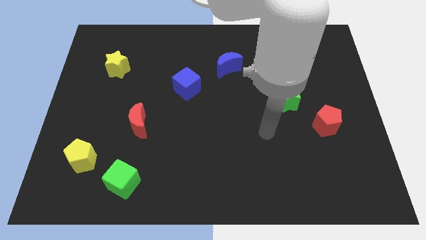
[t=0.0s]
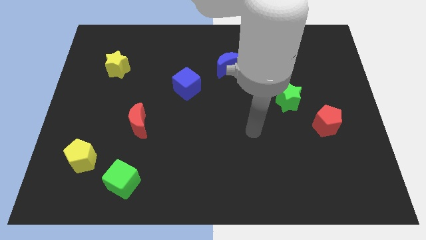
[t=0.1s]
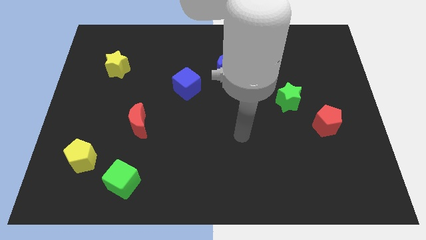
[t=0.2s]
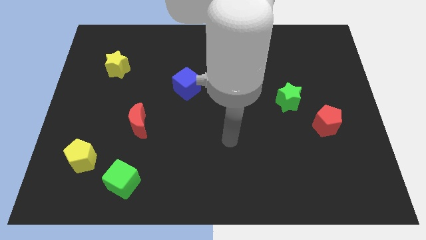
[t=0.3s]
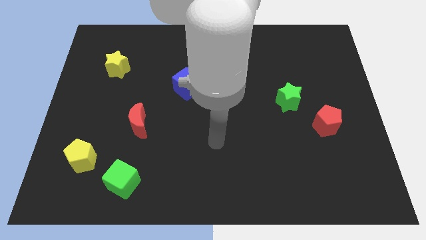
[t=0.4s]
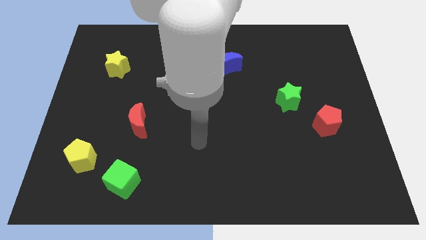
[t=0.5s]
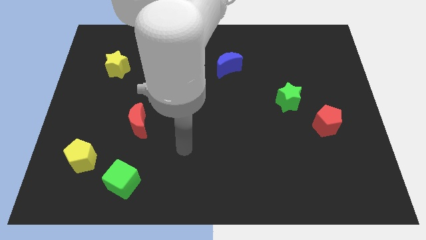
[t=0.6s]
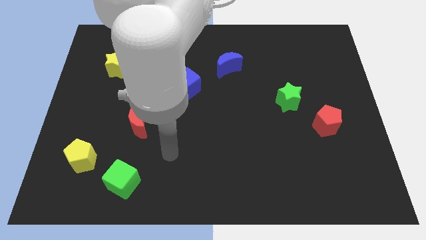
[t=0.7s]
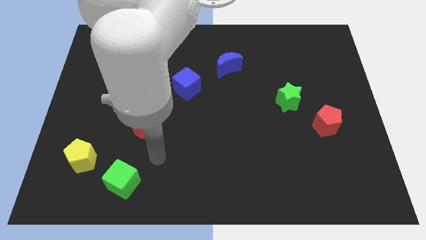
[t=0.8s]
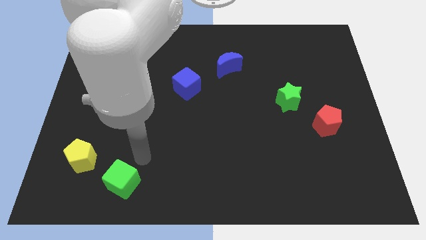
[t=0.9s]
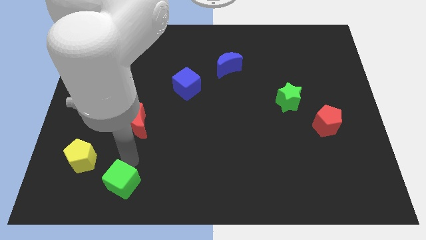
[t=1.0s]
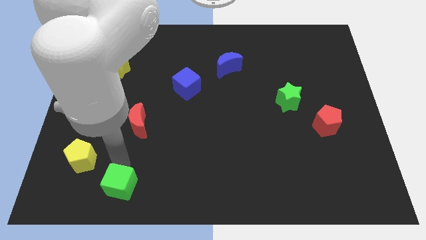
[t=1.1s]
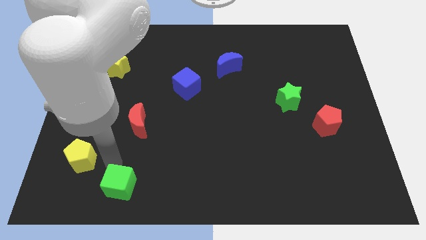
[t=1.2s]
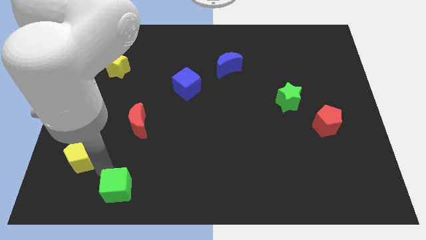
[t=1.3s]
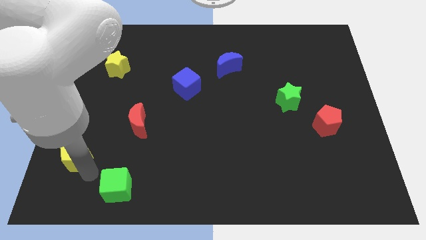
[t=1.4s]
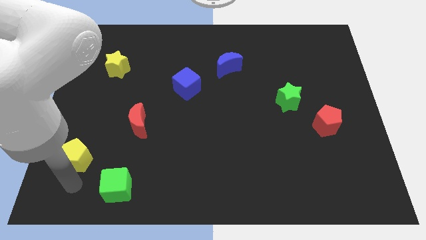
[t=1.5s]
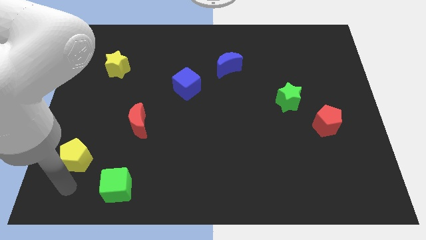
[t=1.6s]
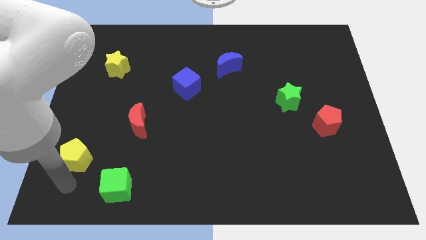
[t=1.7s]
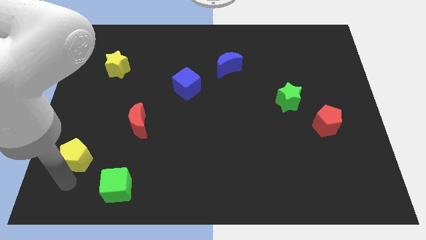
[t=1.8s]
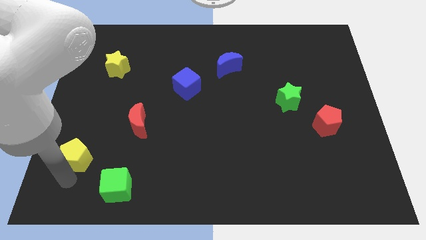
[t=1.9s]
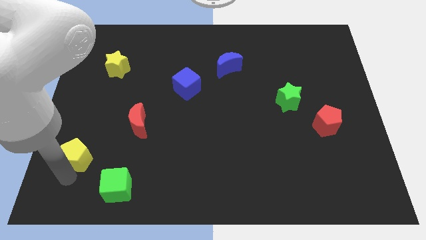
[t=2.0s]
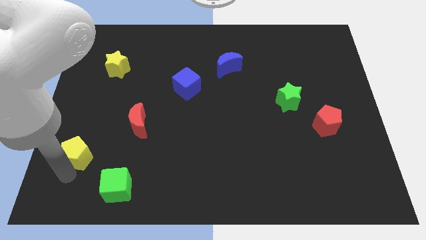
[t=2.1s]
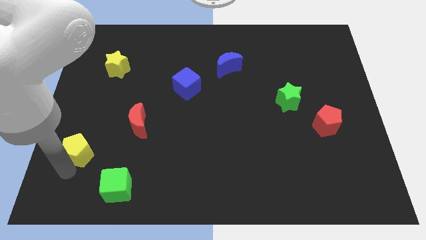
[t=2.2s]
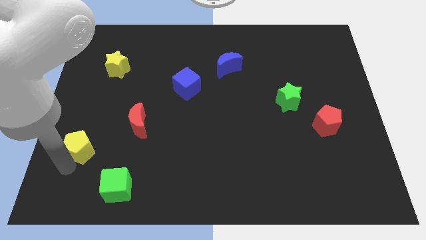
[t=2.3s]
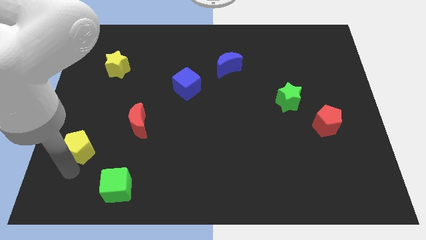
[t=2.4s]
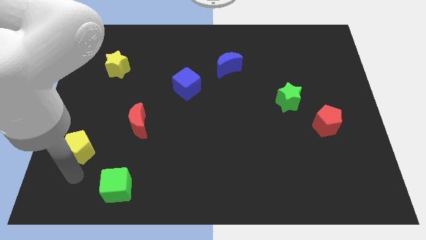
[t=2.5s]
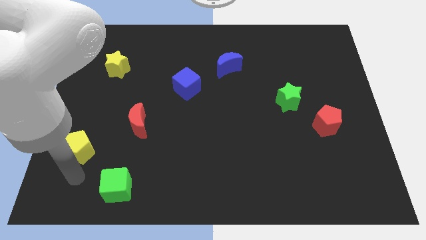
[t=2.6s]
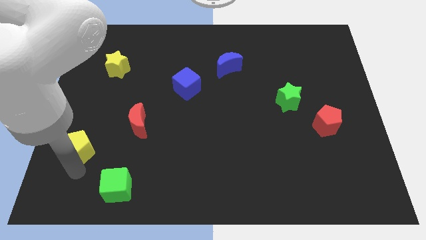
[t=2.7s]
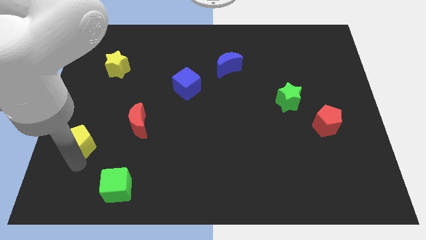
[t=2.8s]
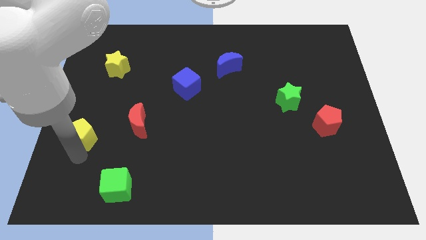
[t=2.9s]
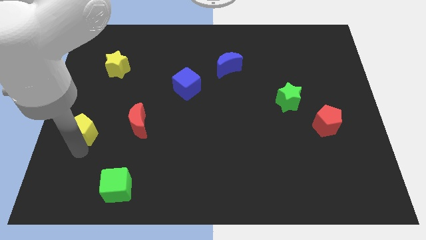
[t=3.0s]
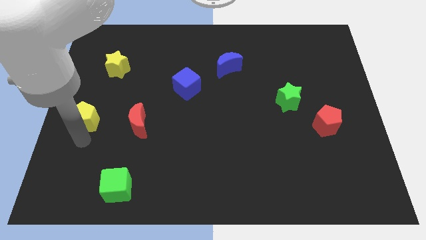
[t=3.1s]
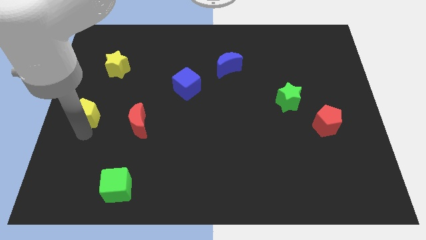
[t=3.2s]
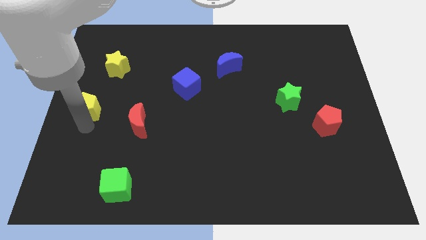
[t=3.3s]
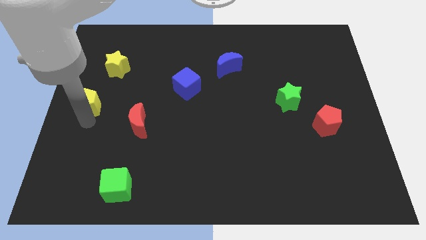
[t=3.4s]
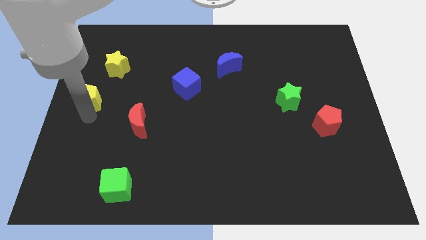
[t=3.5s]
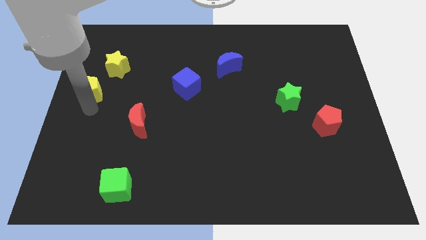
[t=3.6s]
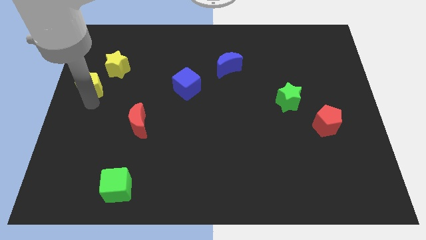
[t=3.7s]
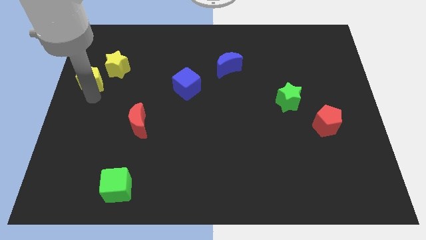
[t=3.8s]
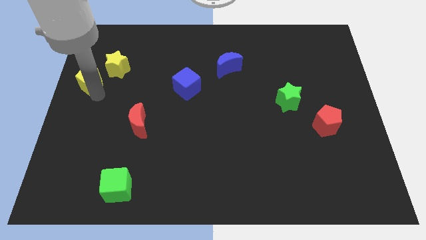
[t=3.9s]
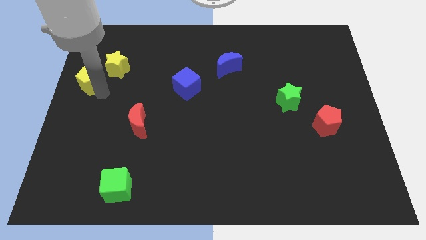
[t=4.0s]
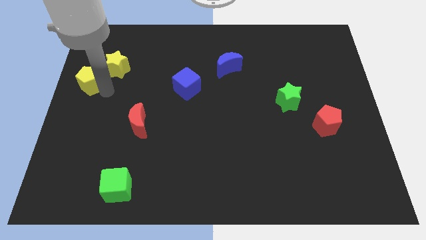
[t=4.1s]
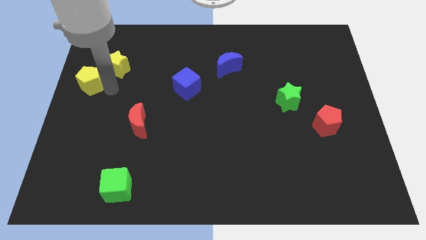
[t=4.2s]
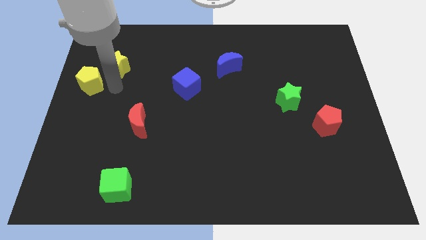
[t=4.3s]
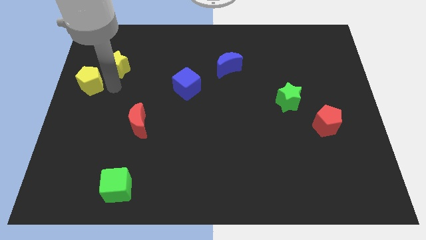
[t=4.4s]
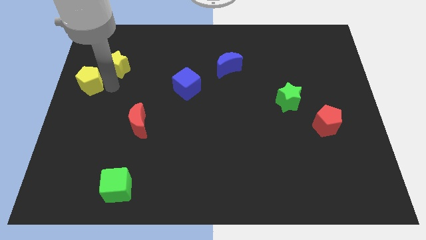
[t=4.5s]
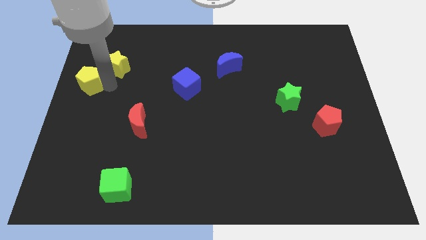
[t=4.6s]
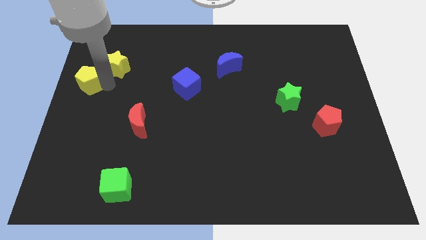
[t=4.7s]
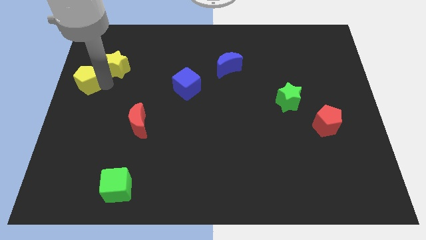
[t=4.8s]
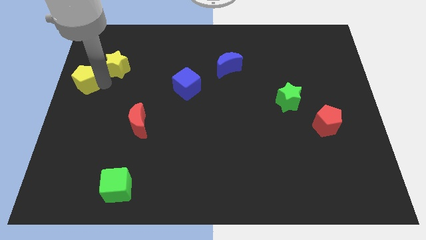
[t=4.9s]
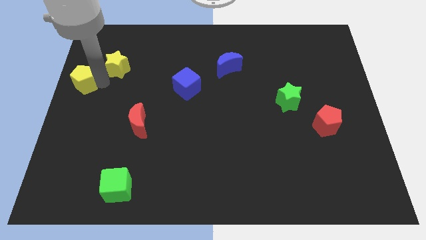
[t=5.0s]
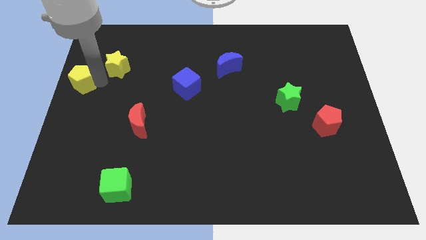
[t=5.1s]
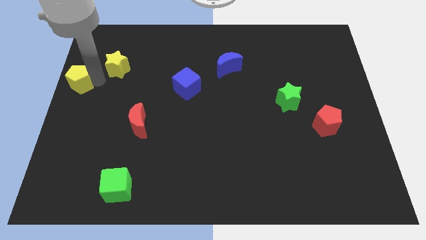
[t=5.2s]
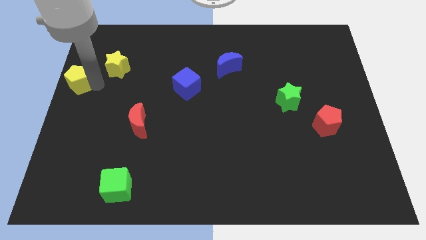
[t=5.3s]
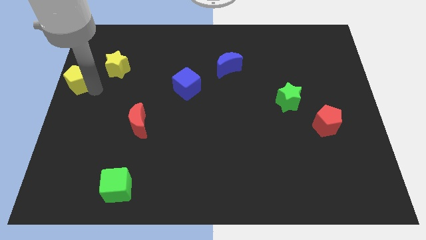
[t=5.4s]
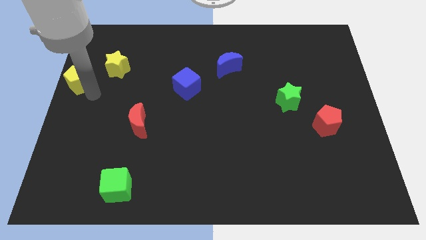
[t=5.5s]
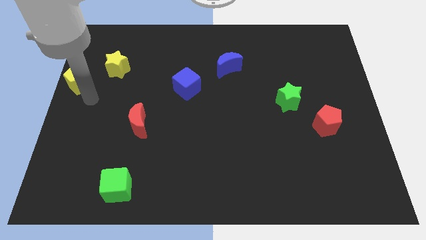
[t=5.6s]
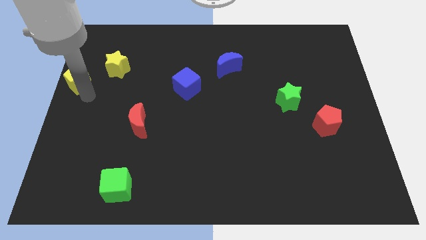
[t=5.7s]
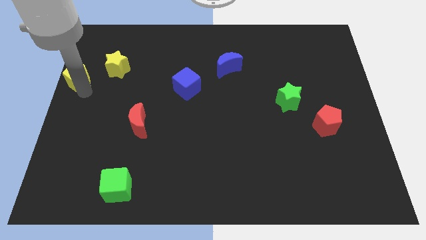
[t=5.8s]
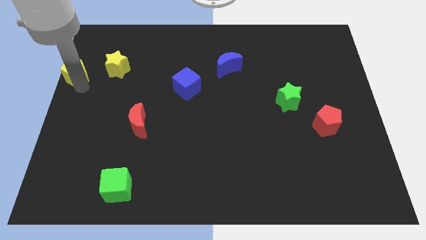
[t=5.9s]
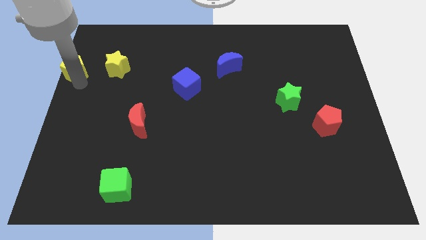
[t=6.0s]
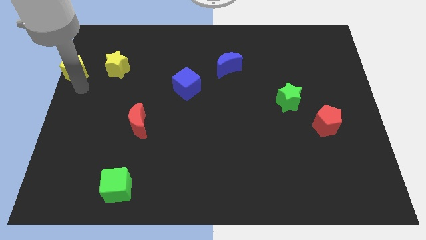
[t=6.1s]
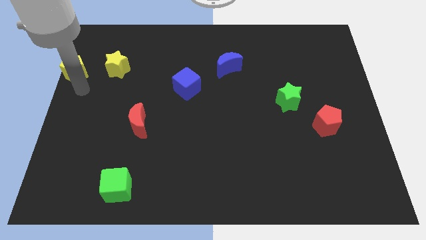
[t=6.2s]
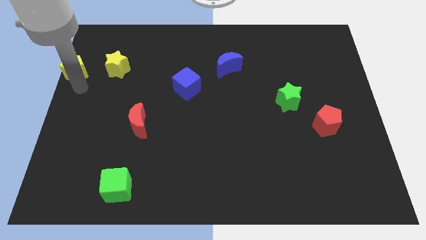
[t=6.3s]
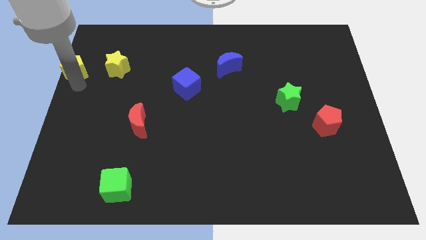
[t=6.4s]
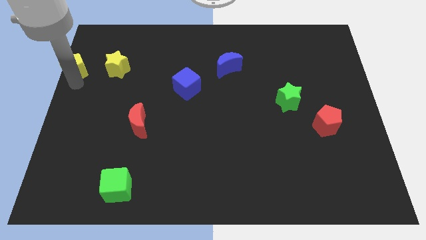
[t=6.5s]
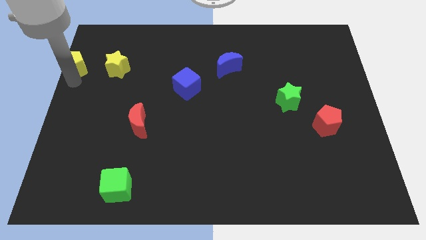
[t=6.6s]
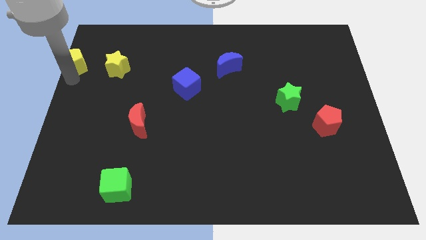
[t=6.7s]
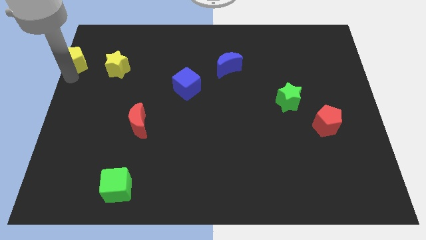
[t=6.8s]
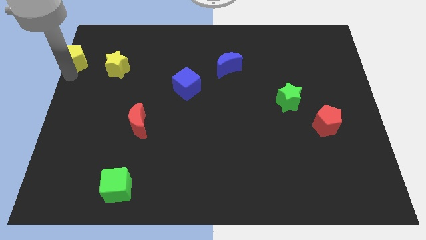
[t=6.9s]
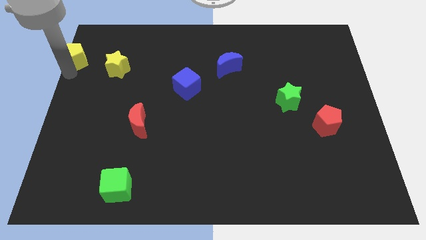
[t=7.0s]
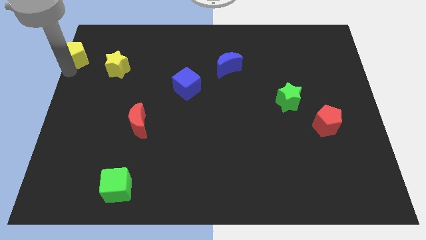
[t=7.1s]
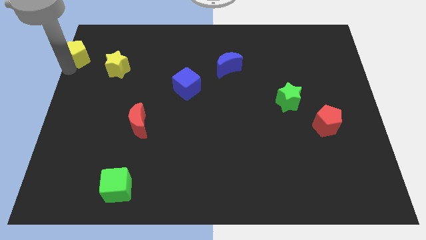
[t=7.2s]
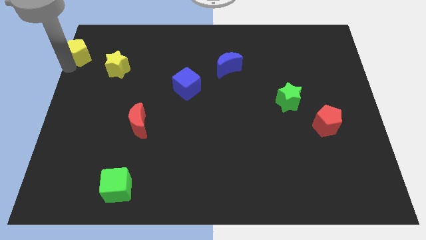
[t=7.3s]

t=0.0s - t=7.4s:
put the yellow pentagon to the top left of the board
